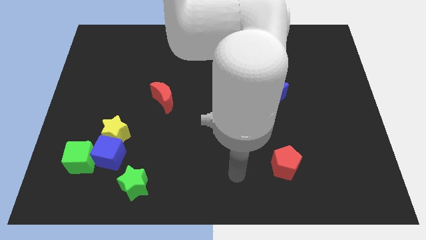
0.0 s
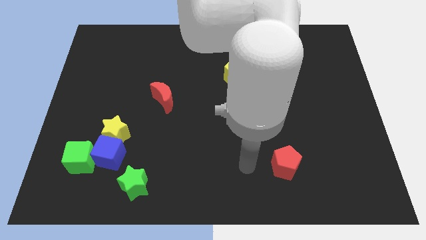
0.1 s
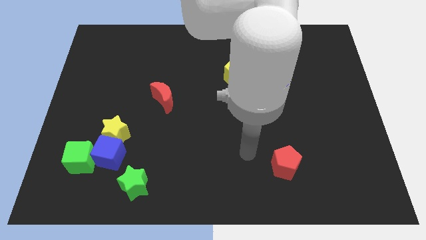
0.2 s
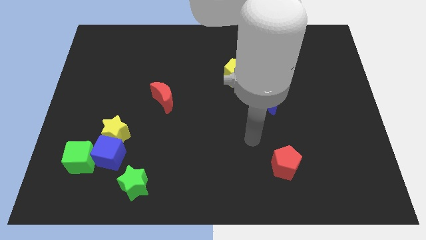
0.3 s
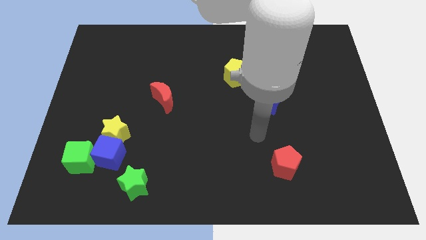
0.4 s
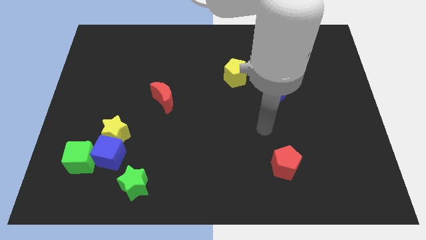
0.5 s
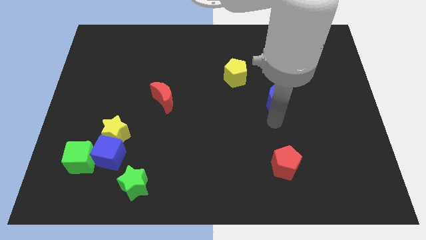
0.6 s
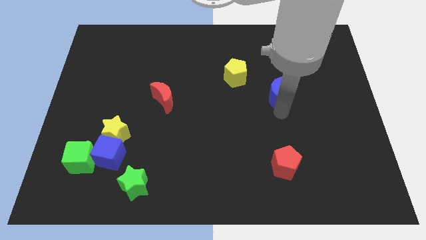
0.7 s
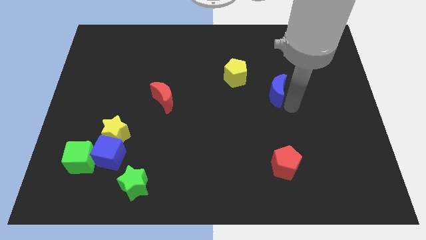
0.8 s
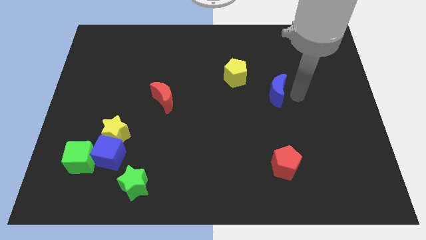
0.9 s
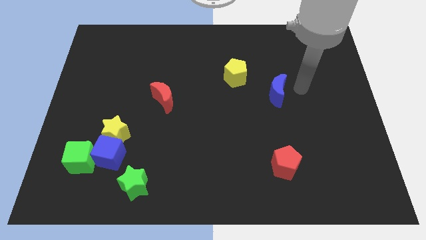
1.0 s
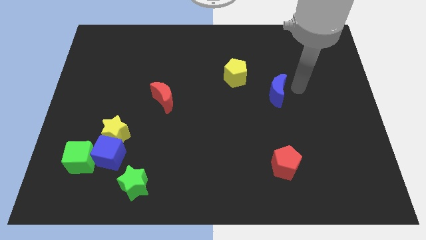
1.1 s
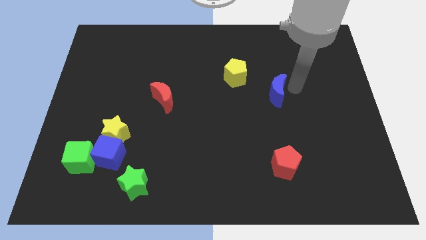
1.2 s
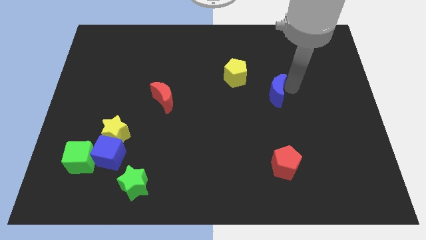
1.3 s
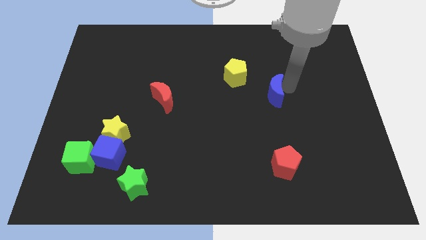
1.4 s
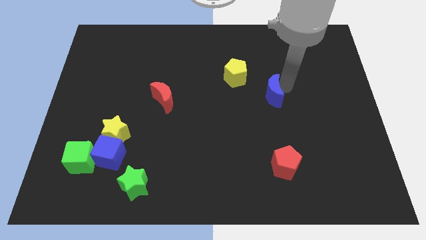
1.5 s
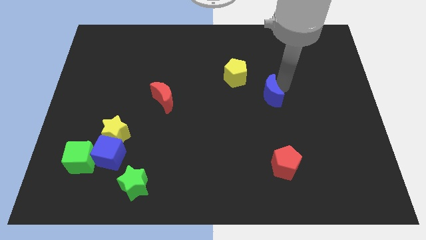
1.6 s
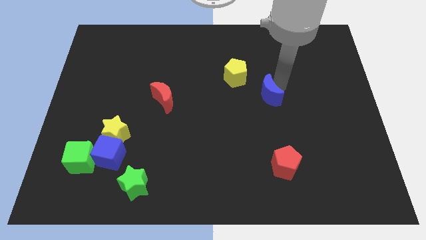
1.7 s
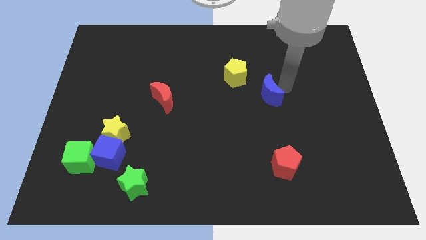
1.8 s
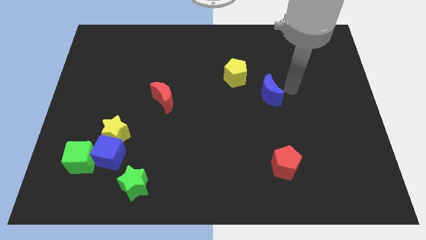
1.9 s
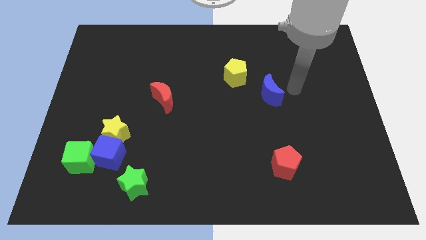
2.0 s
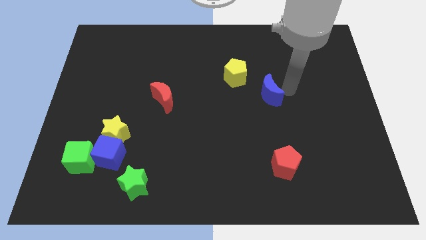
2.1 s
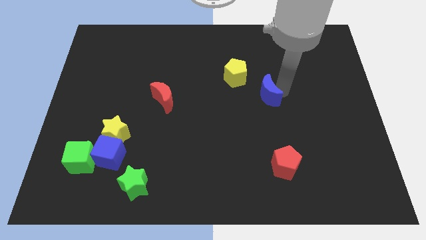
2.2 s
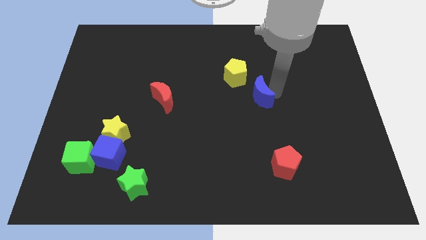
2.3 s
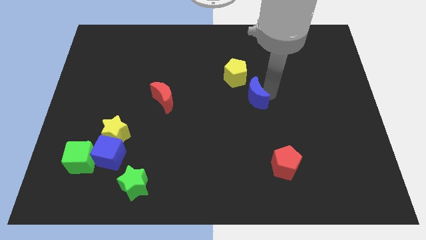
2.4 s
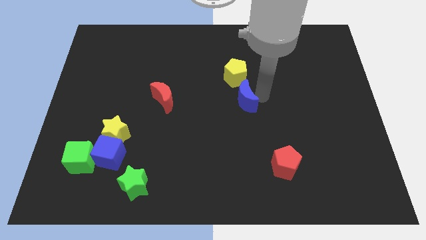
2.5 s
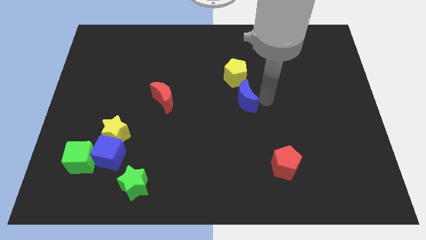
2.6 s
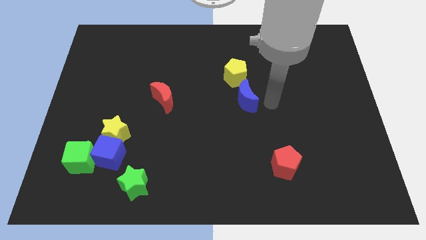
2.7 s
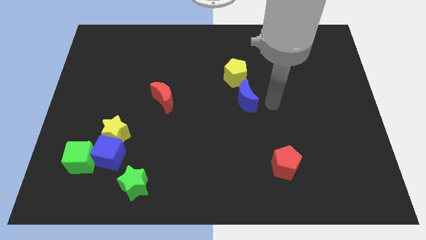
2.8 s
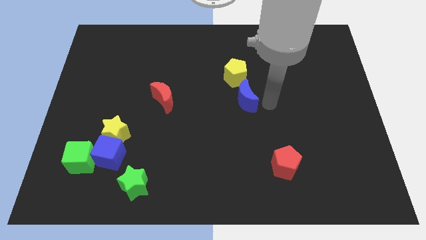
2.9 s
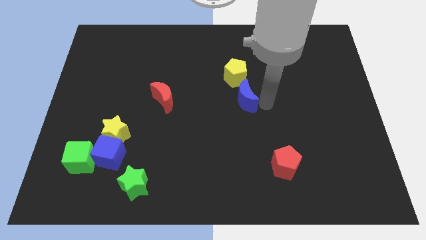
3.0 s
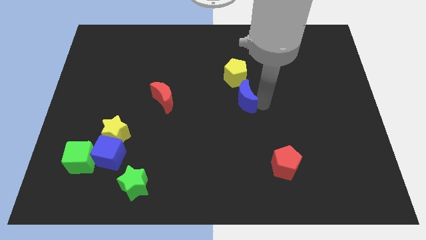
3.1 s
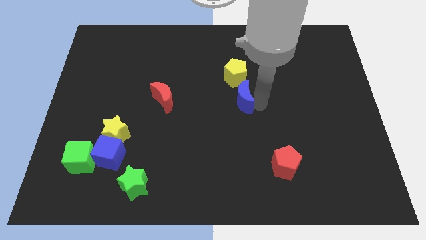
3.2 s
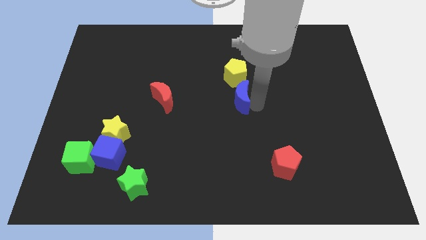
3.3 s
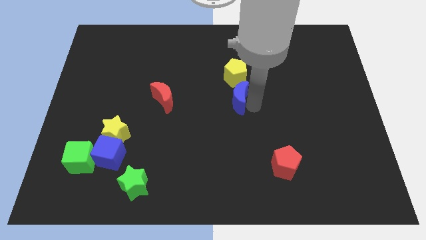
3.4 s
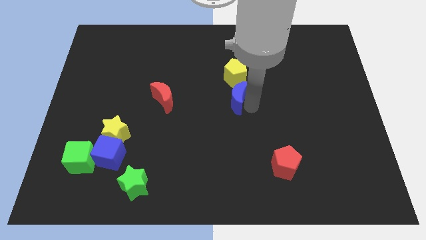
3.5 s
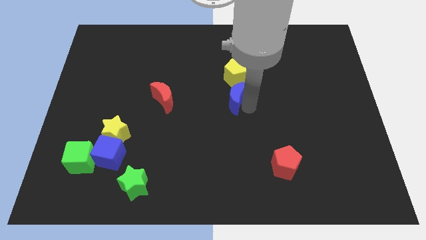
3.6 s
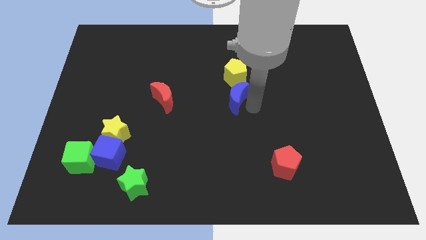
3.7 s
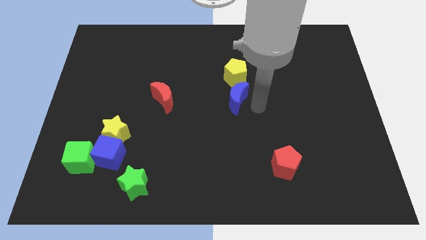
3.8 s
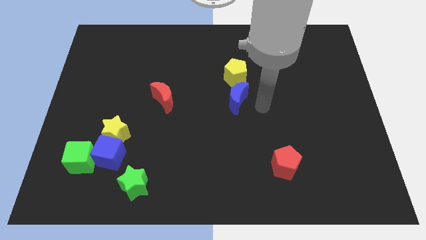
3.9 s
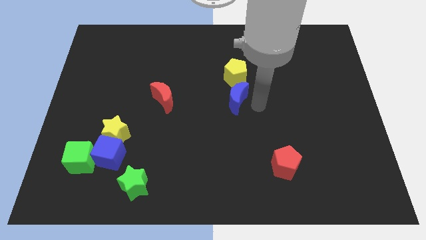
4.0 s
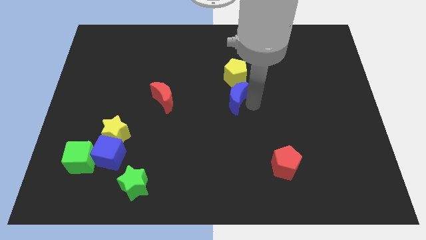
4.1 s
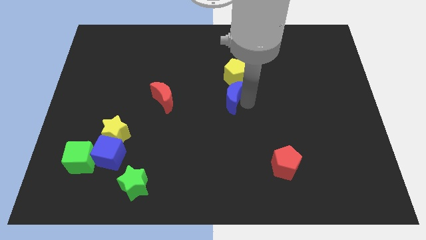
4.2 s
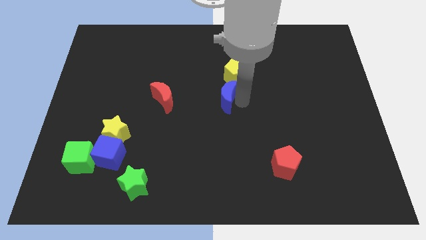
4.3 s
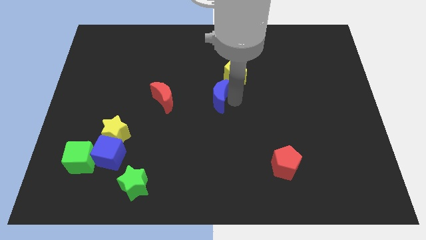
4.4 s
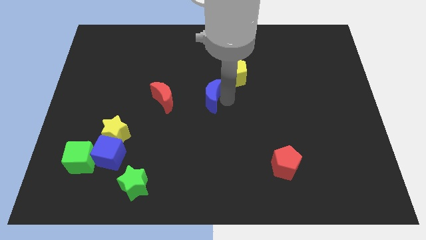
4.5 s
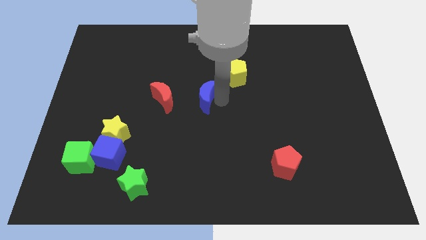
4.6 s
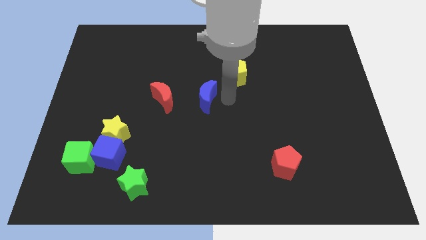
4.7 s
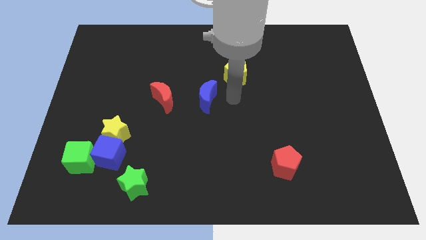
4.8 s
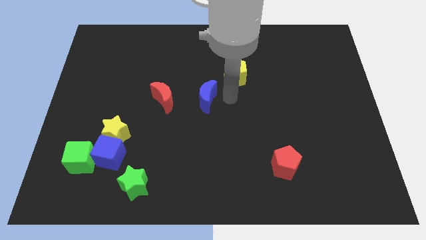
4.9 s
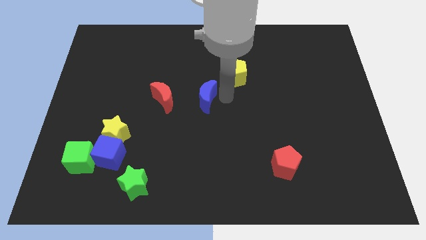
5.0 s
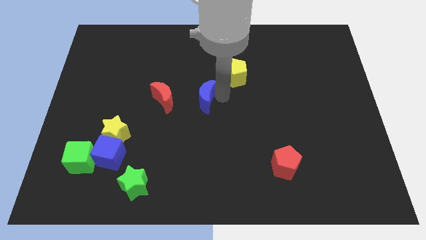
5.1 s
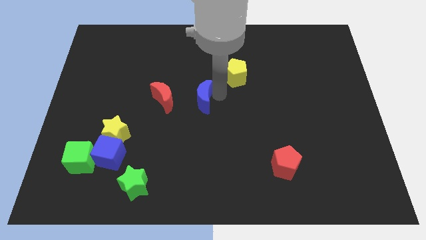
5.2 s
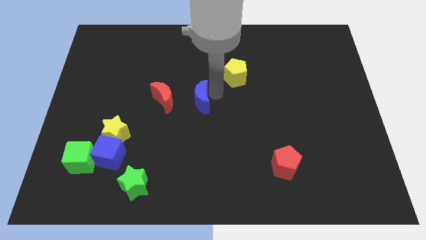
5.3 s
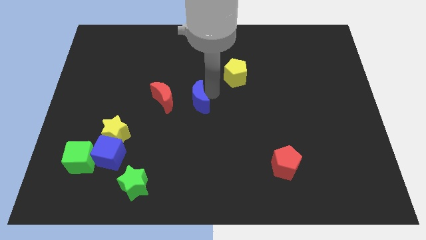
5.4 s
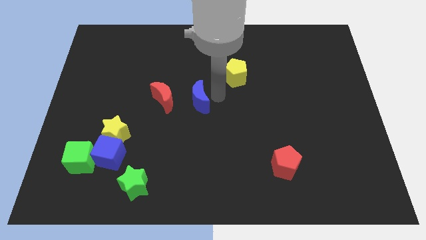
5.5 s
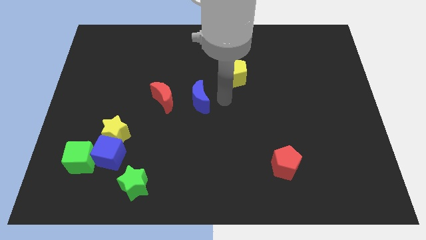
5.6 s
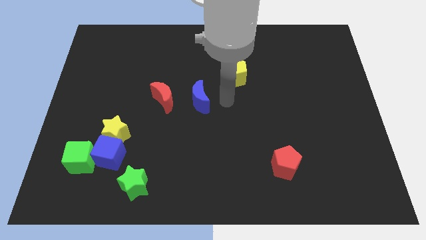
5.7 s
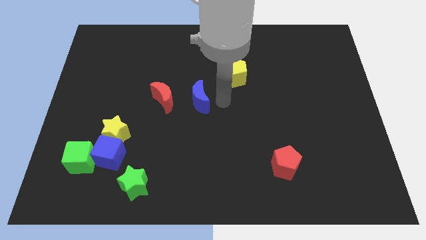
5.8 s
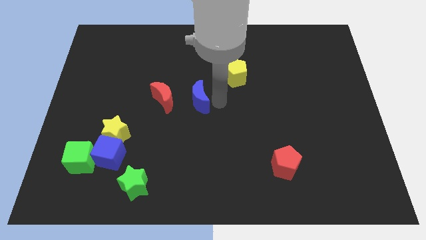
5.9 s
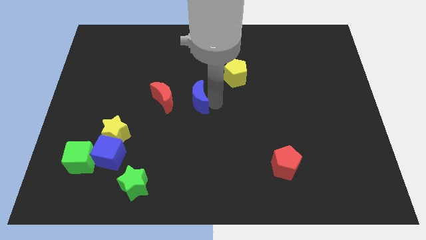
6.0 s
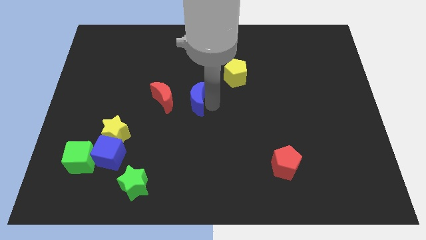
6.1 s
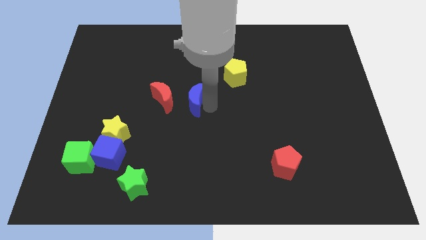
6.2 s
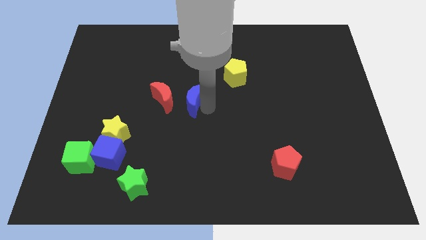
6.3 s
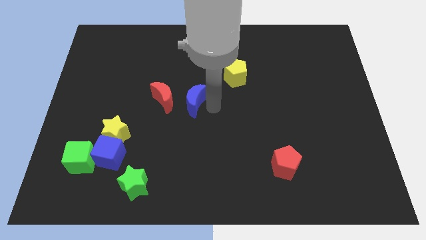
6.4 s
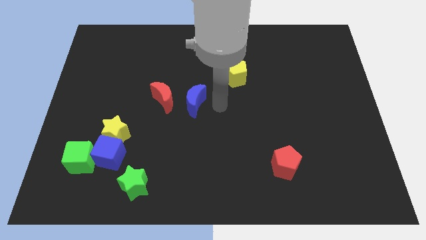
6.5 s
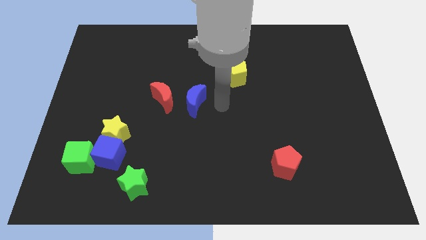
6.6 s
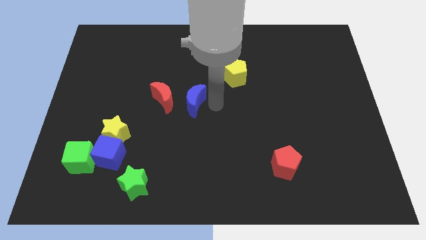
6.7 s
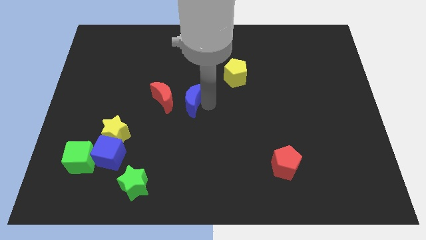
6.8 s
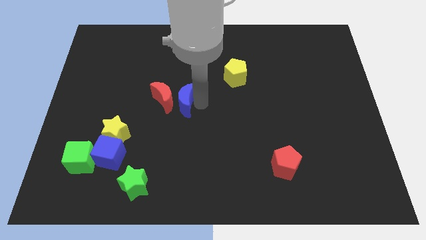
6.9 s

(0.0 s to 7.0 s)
push the blue moon to the red moon

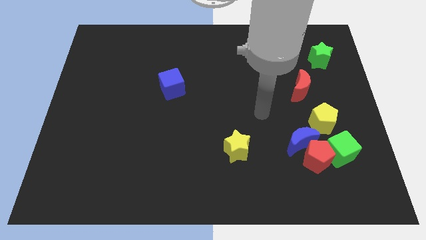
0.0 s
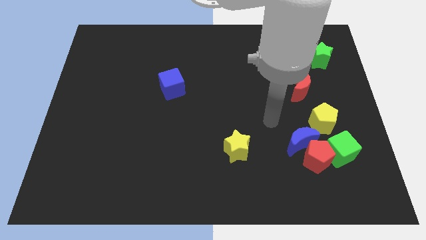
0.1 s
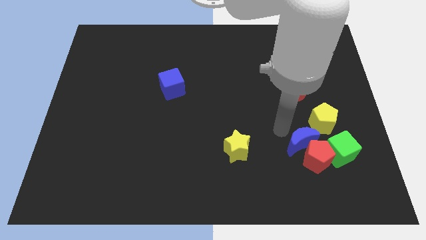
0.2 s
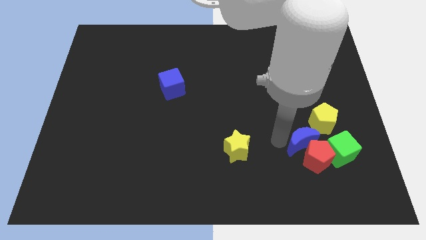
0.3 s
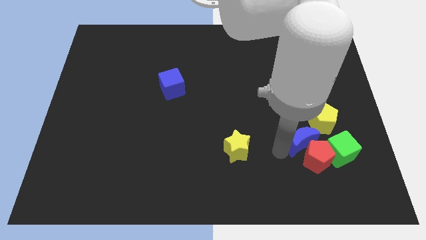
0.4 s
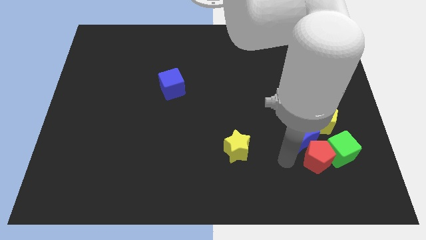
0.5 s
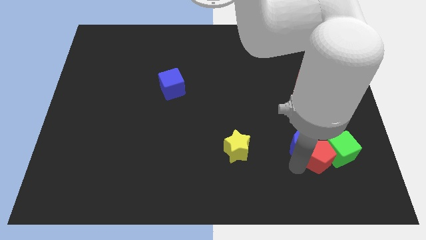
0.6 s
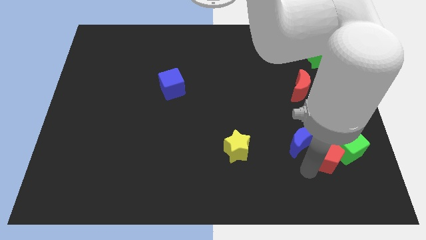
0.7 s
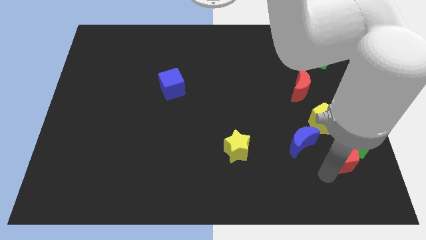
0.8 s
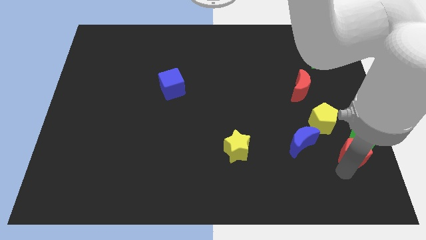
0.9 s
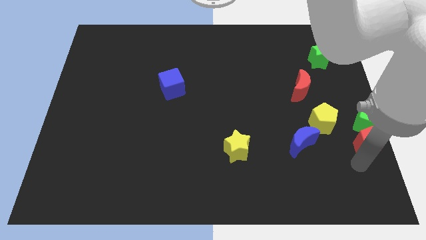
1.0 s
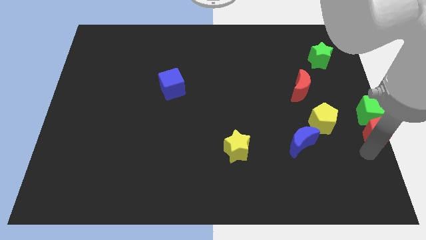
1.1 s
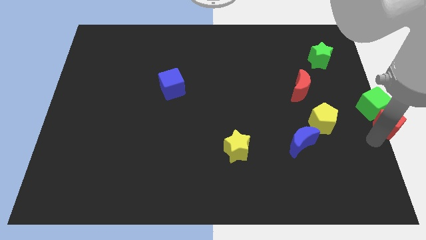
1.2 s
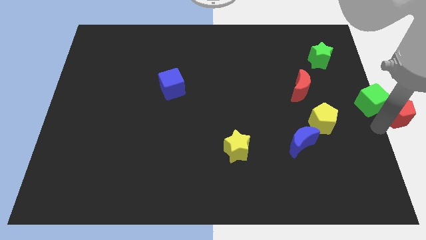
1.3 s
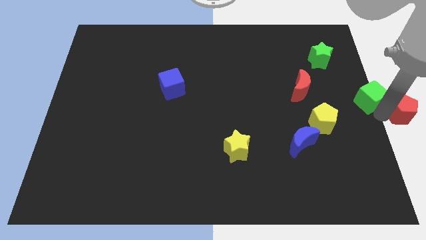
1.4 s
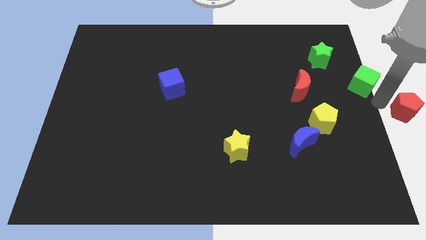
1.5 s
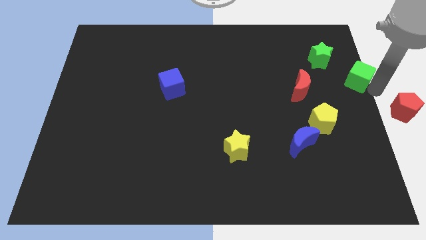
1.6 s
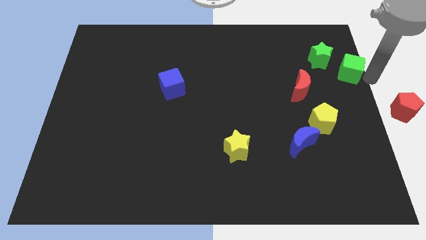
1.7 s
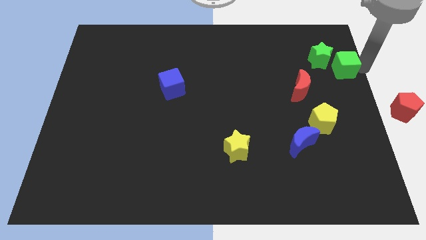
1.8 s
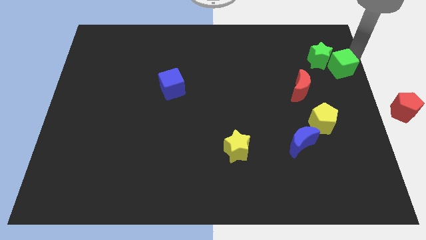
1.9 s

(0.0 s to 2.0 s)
move the green cube close to the green star
